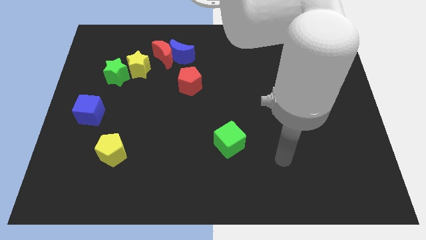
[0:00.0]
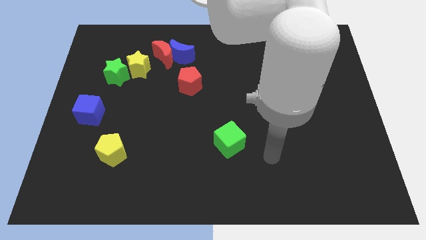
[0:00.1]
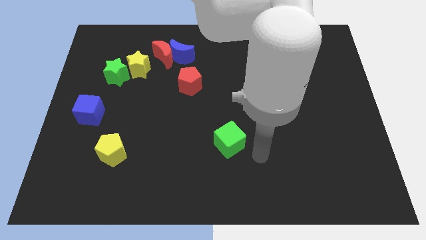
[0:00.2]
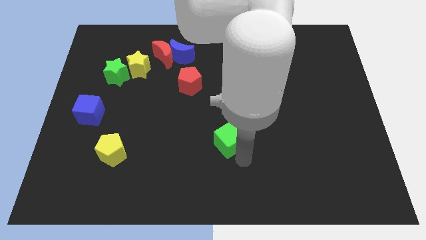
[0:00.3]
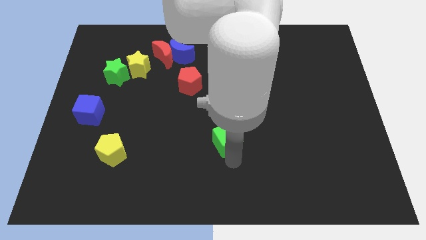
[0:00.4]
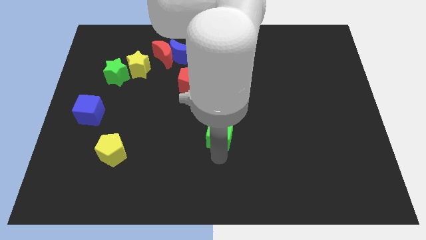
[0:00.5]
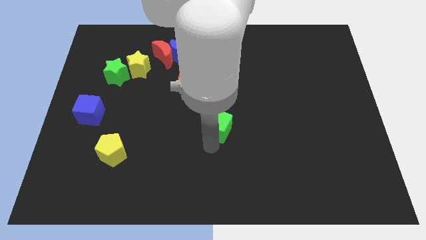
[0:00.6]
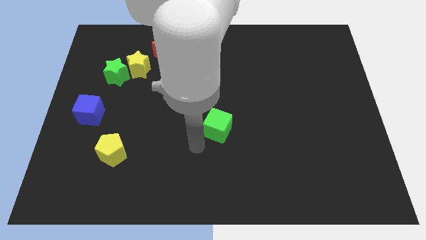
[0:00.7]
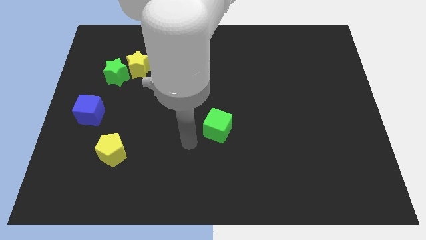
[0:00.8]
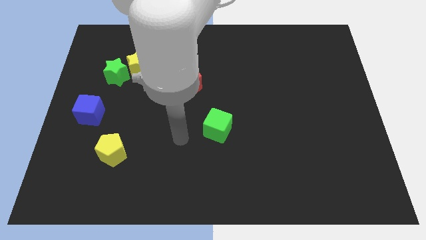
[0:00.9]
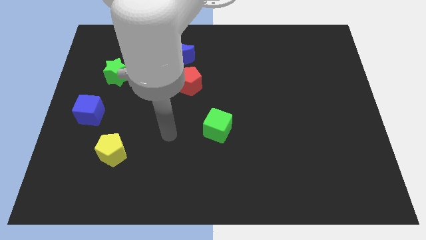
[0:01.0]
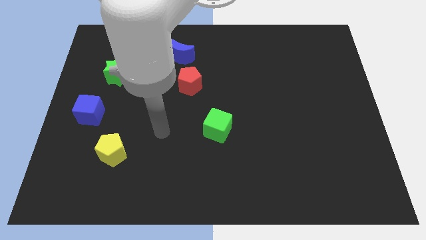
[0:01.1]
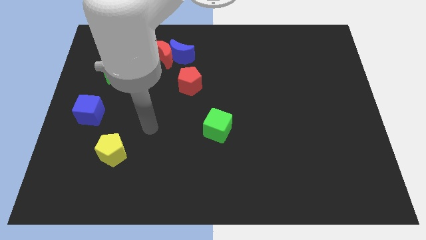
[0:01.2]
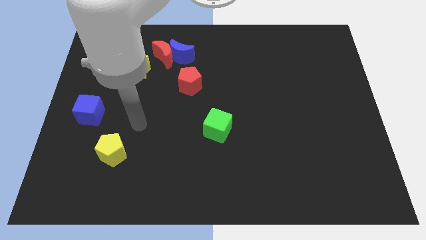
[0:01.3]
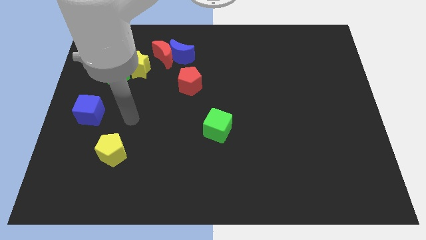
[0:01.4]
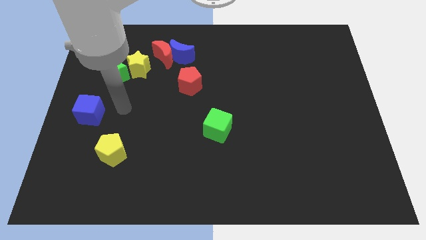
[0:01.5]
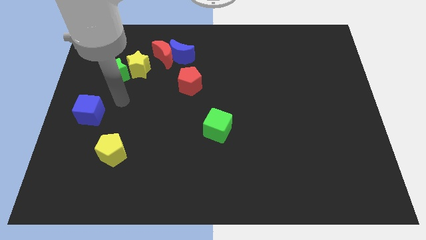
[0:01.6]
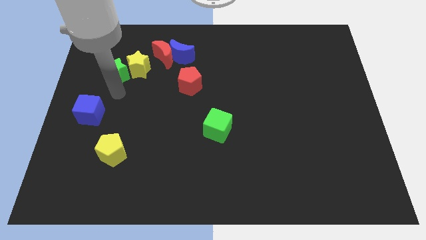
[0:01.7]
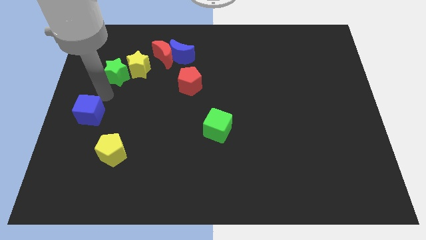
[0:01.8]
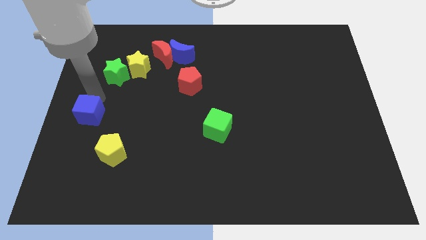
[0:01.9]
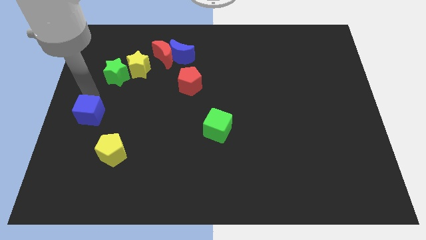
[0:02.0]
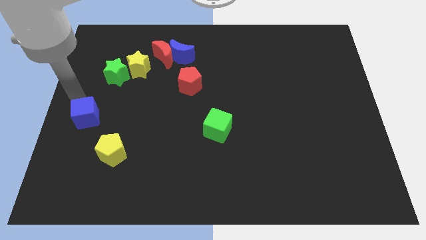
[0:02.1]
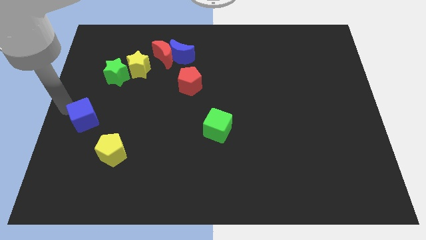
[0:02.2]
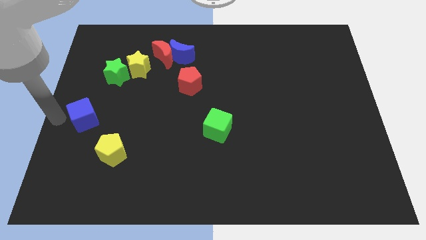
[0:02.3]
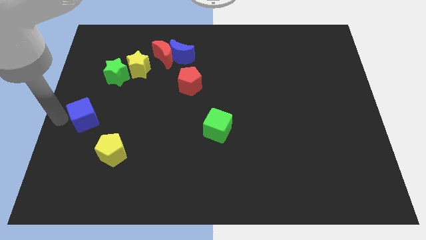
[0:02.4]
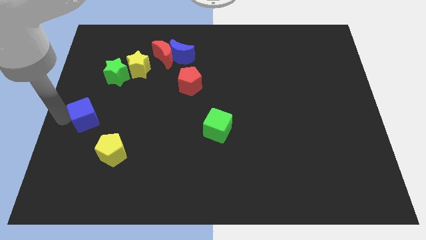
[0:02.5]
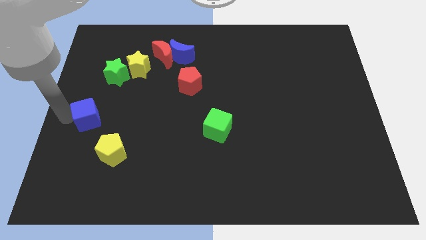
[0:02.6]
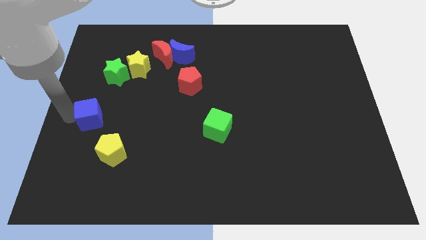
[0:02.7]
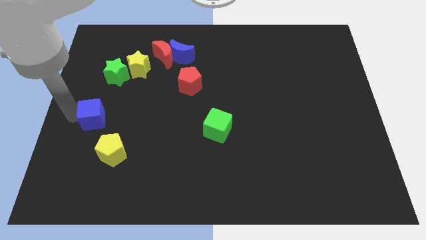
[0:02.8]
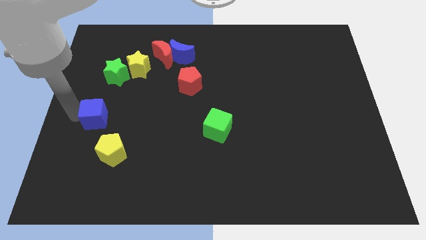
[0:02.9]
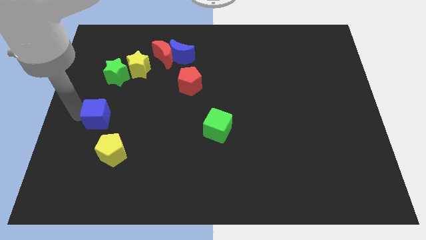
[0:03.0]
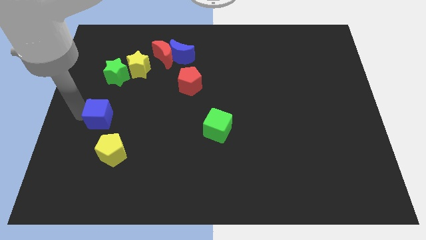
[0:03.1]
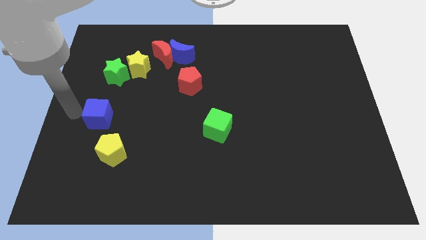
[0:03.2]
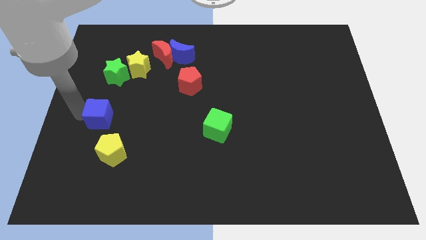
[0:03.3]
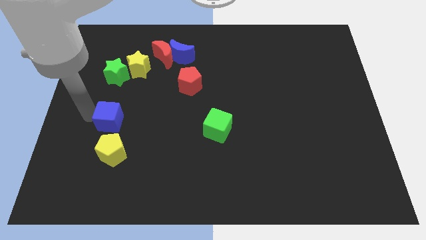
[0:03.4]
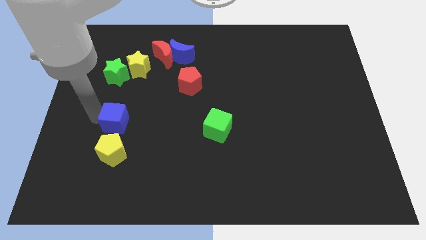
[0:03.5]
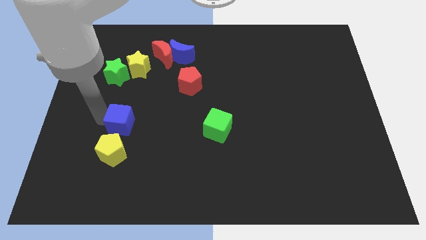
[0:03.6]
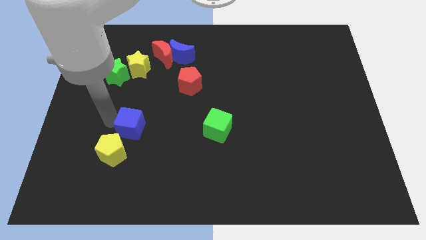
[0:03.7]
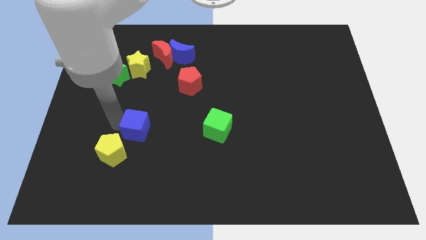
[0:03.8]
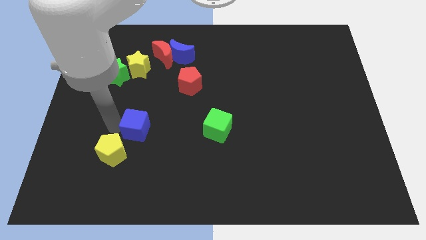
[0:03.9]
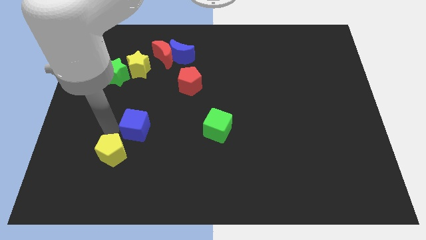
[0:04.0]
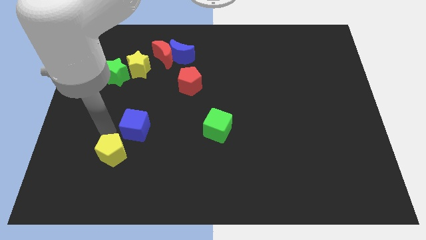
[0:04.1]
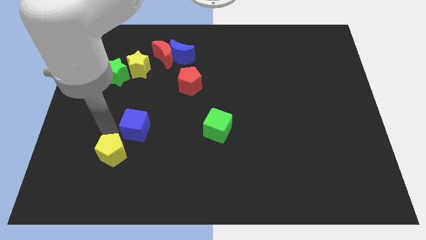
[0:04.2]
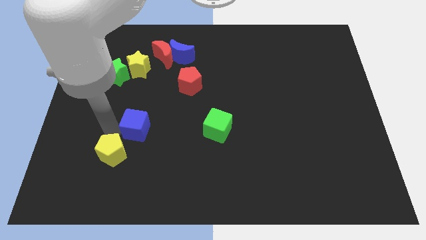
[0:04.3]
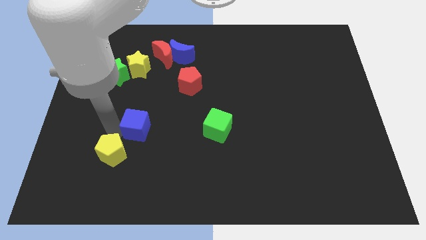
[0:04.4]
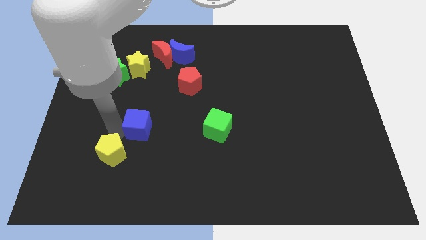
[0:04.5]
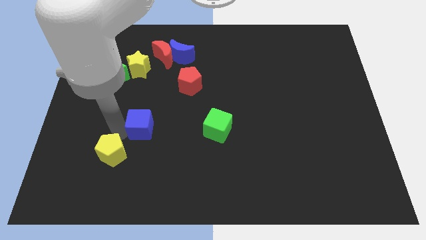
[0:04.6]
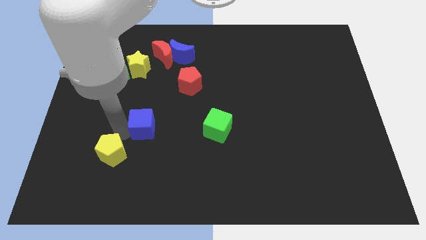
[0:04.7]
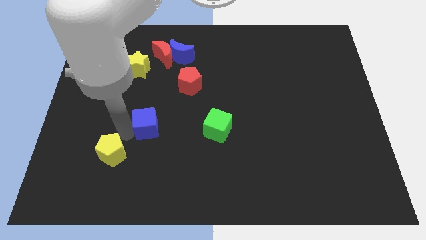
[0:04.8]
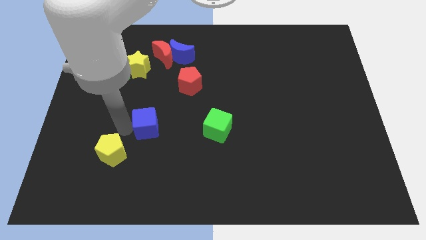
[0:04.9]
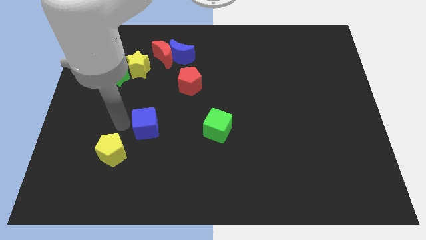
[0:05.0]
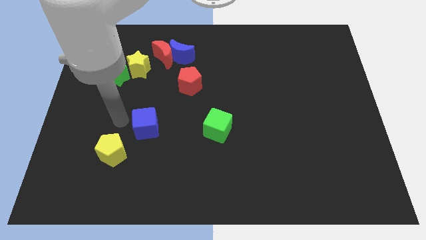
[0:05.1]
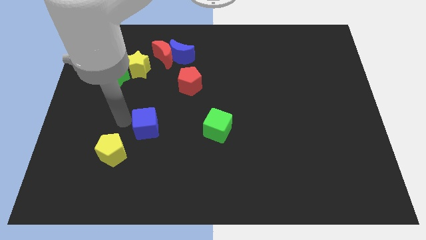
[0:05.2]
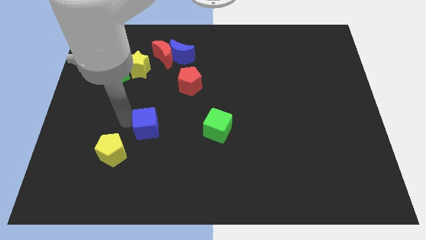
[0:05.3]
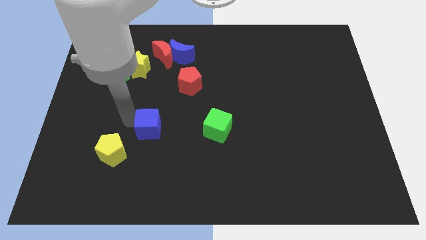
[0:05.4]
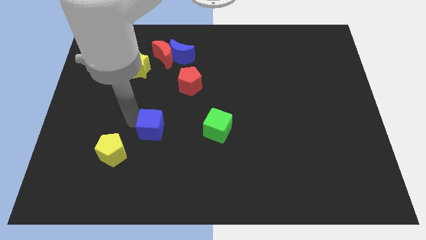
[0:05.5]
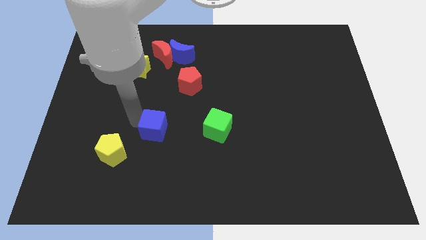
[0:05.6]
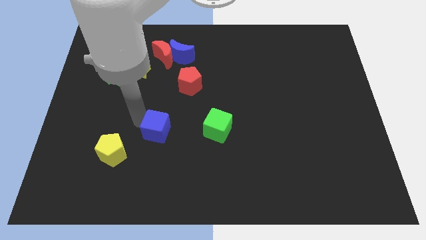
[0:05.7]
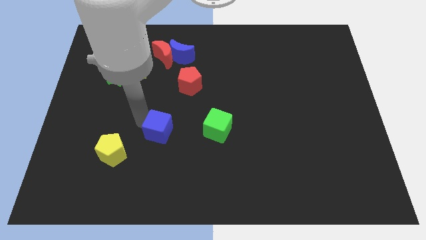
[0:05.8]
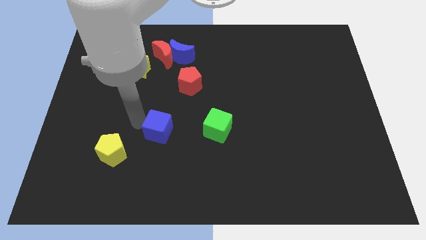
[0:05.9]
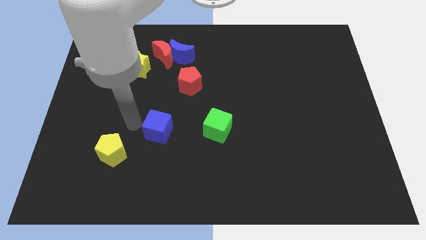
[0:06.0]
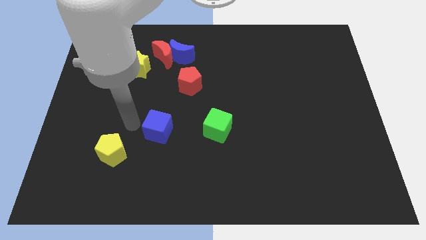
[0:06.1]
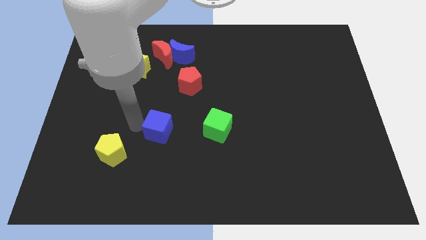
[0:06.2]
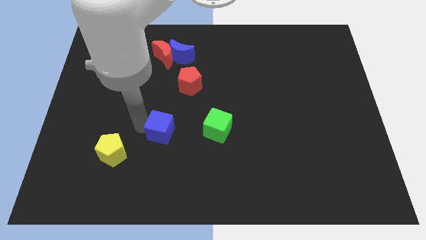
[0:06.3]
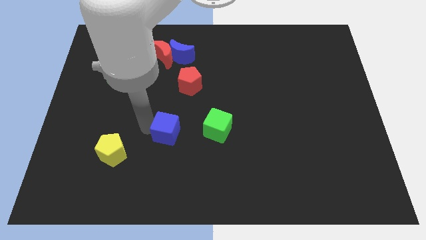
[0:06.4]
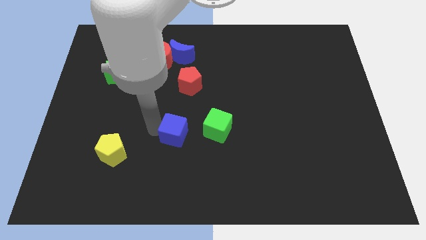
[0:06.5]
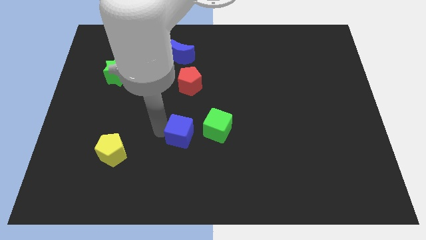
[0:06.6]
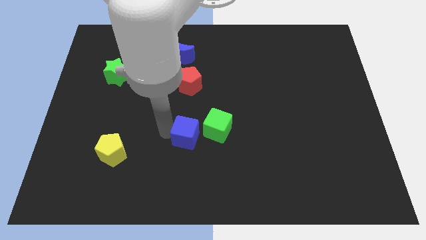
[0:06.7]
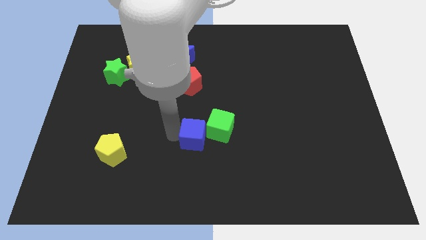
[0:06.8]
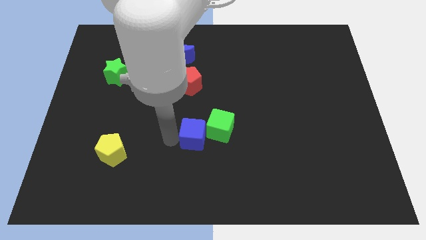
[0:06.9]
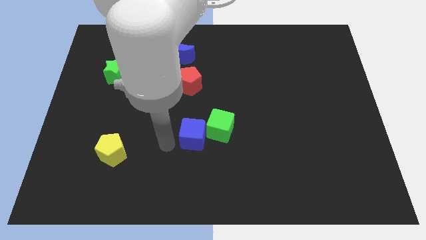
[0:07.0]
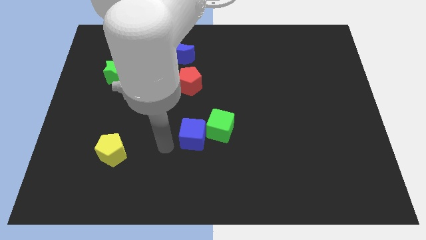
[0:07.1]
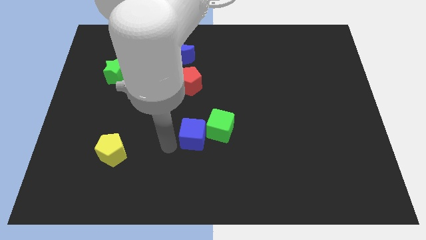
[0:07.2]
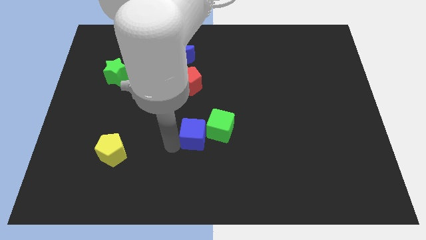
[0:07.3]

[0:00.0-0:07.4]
push the blue cube next to the green cube
